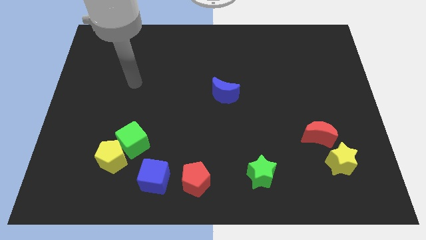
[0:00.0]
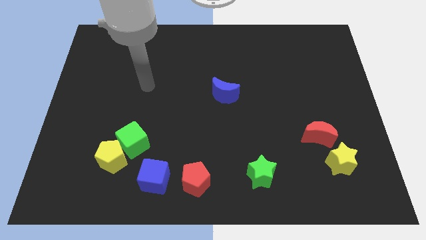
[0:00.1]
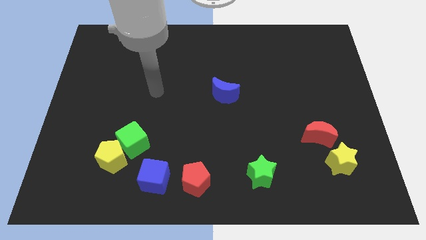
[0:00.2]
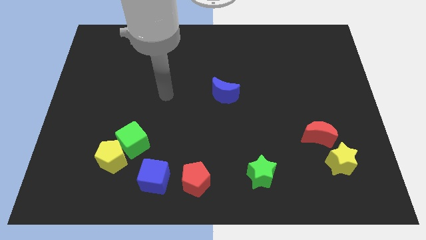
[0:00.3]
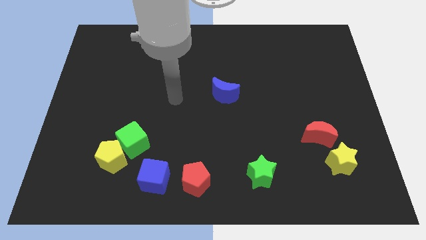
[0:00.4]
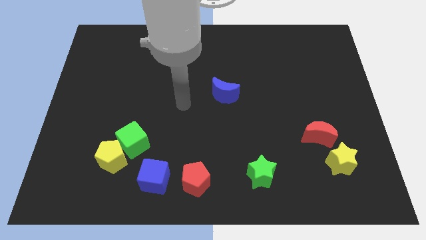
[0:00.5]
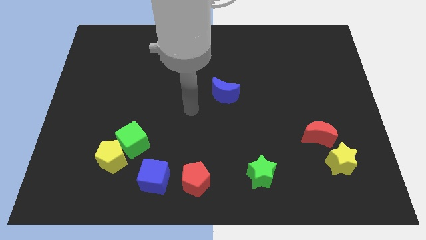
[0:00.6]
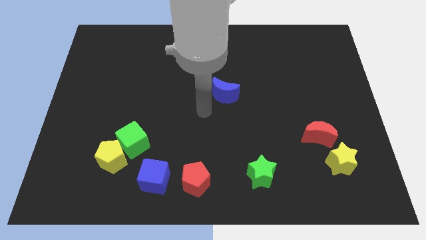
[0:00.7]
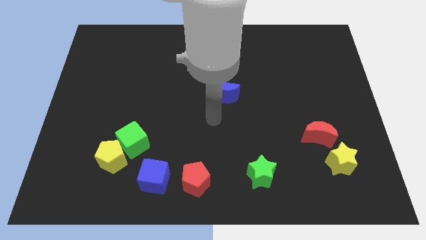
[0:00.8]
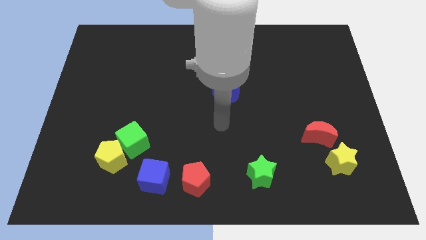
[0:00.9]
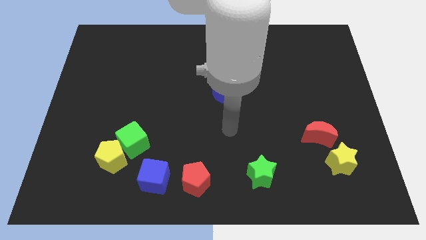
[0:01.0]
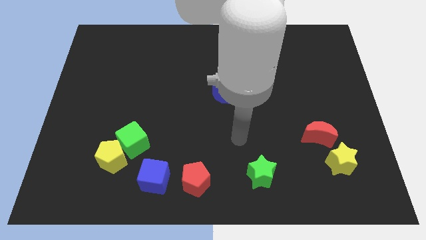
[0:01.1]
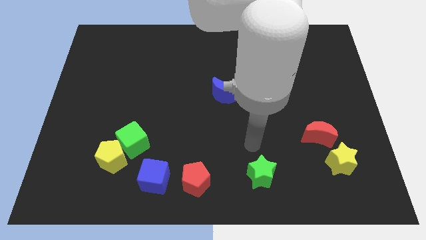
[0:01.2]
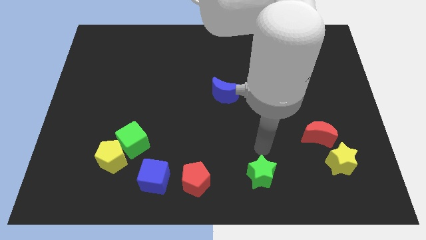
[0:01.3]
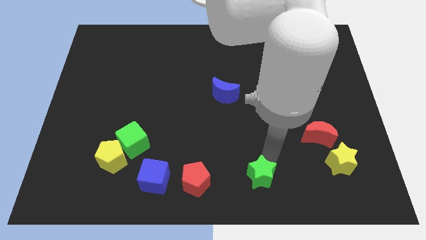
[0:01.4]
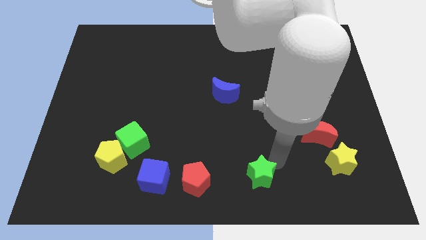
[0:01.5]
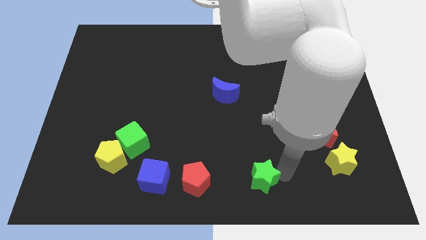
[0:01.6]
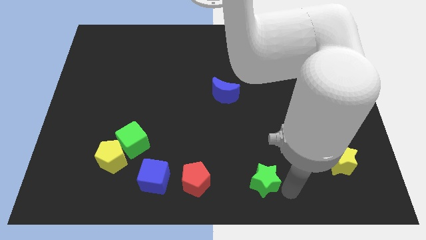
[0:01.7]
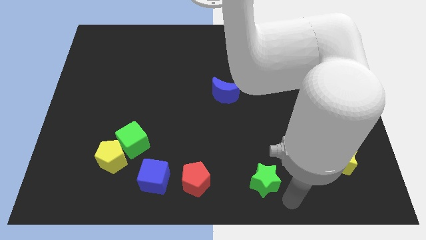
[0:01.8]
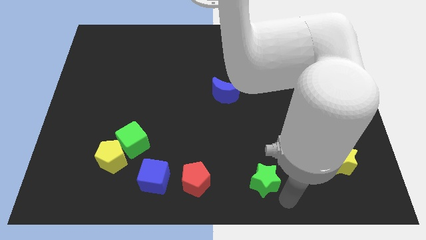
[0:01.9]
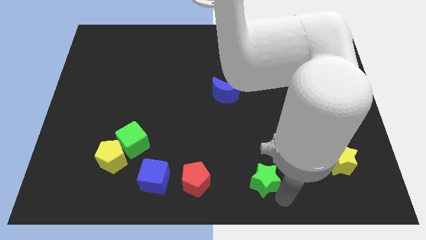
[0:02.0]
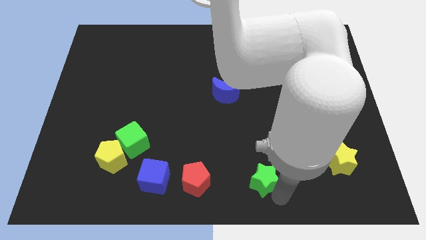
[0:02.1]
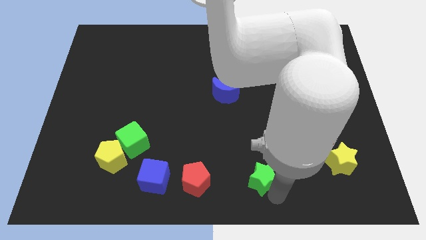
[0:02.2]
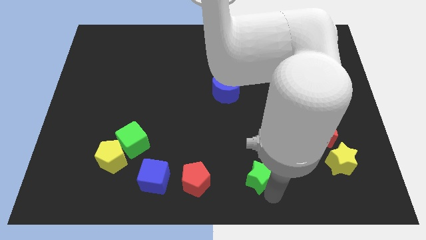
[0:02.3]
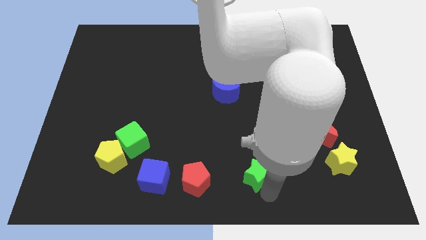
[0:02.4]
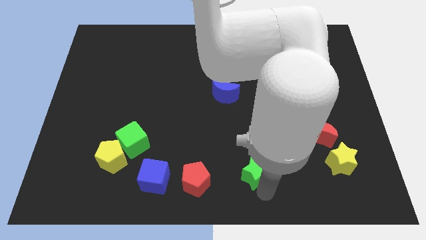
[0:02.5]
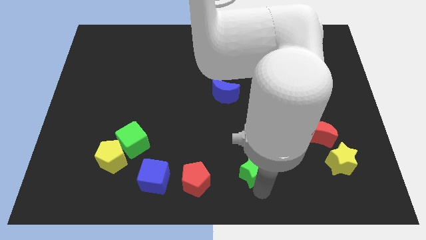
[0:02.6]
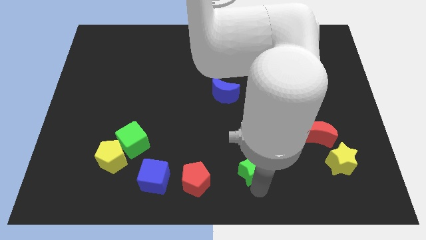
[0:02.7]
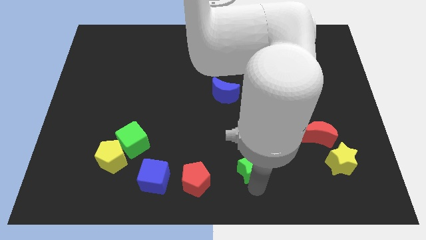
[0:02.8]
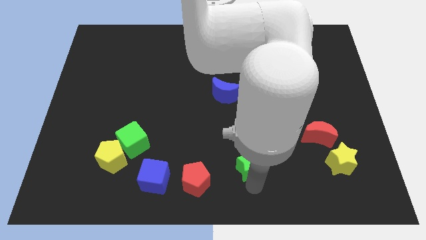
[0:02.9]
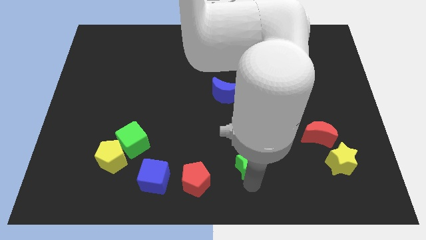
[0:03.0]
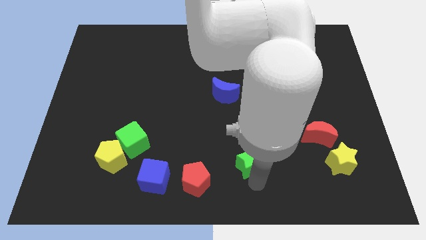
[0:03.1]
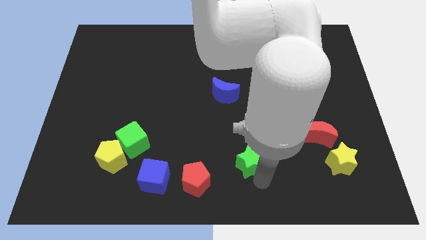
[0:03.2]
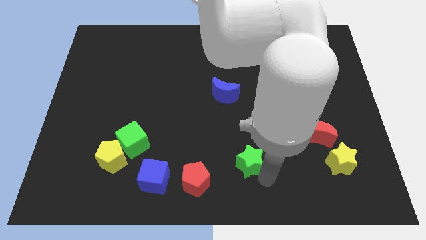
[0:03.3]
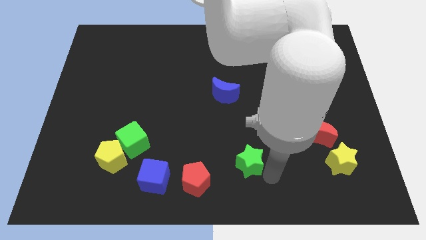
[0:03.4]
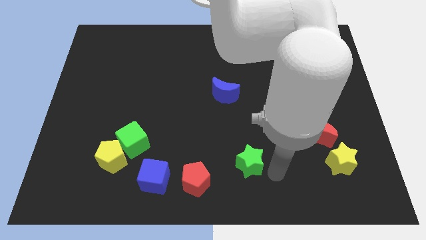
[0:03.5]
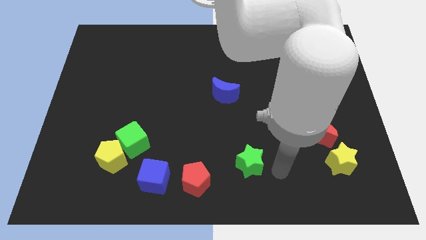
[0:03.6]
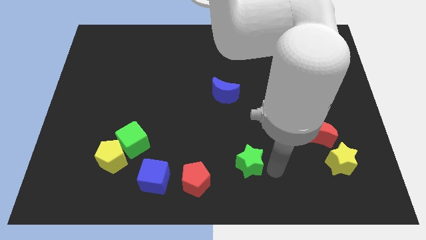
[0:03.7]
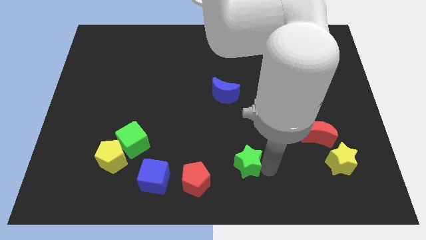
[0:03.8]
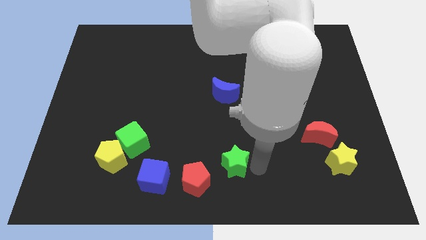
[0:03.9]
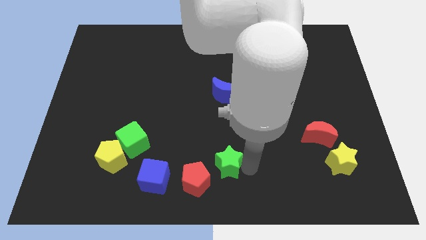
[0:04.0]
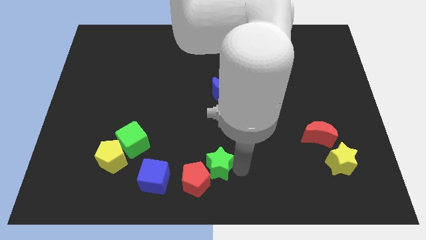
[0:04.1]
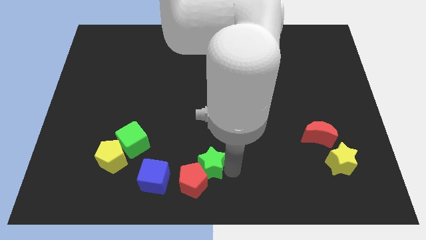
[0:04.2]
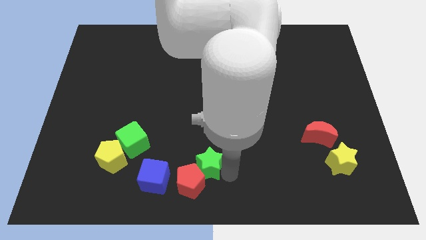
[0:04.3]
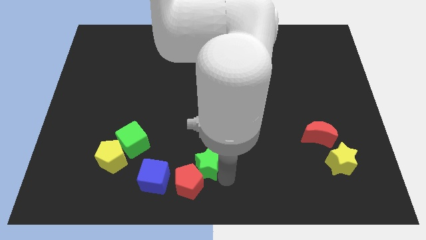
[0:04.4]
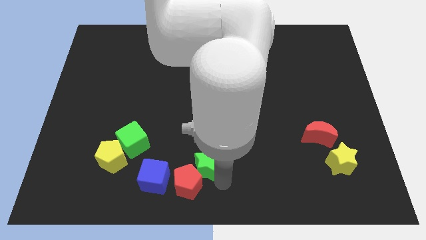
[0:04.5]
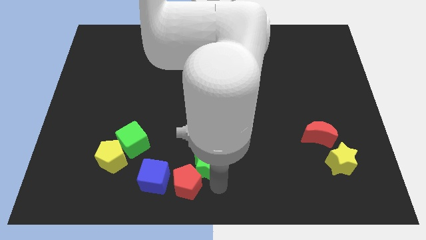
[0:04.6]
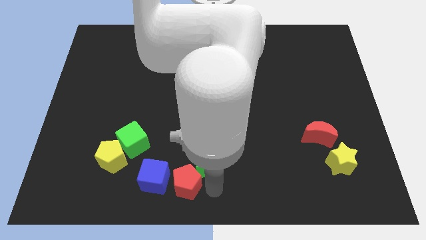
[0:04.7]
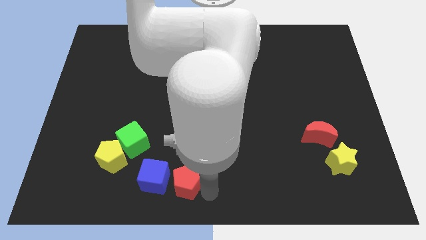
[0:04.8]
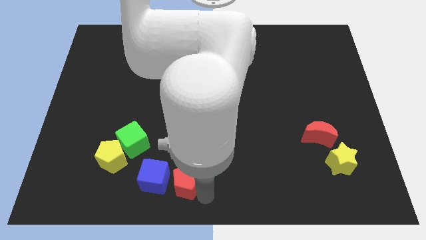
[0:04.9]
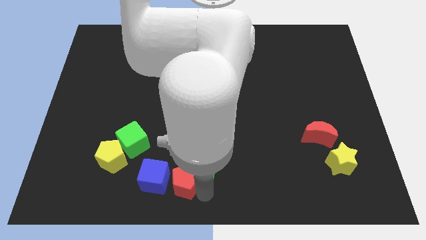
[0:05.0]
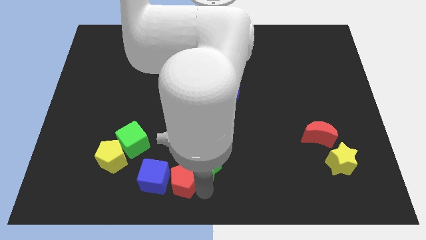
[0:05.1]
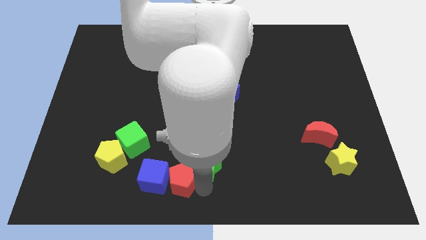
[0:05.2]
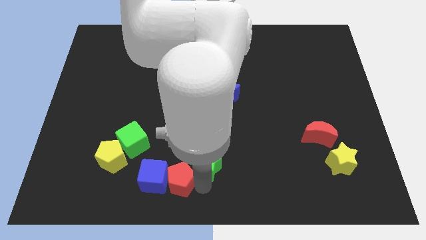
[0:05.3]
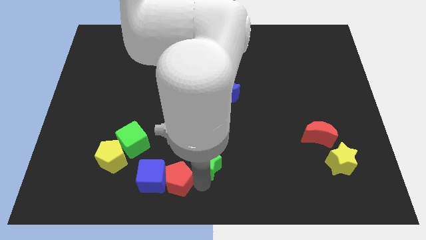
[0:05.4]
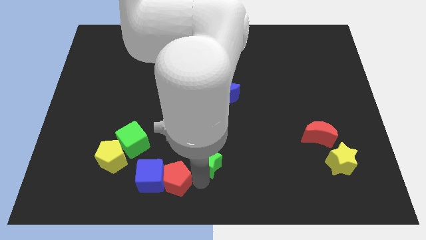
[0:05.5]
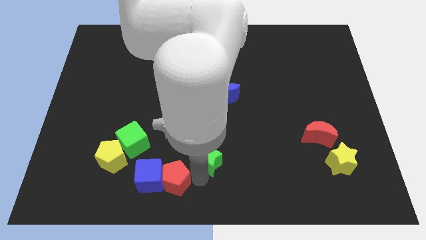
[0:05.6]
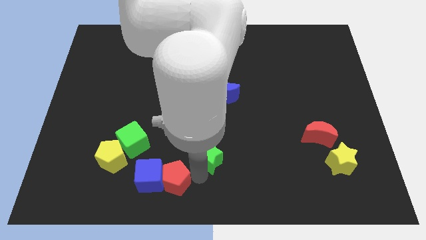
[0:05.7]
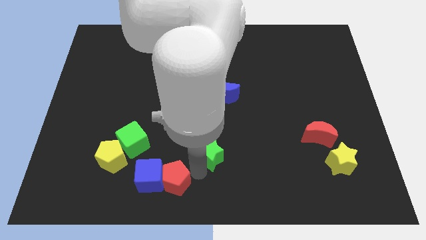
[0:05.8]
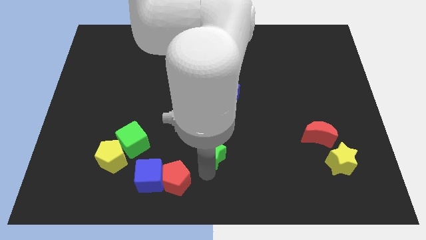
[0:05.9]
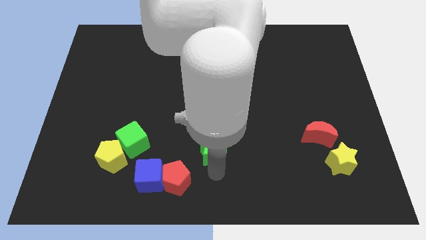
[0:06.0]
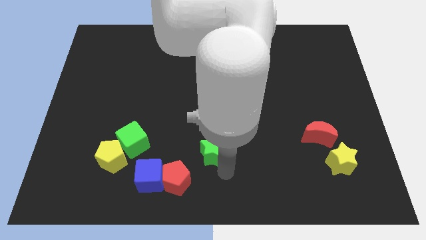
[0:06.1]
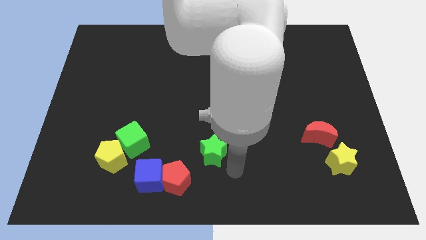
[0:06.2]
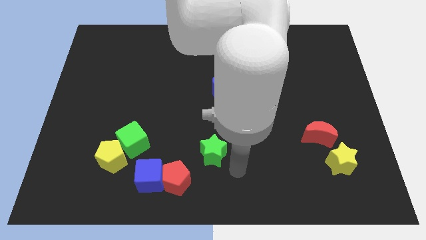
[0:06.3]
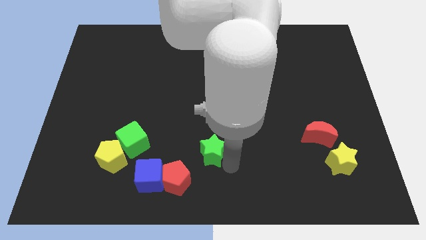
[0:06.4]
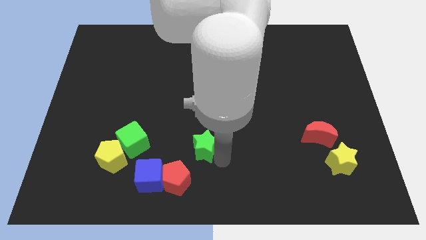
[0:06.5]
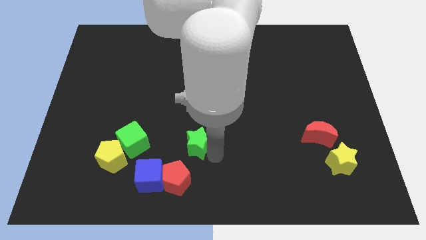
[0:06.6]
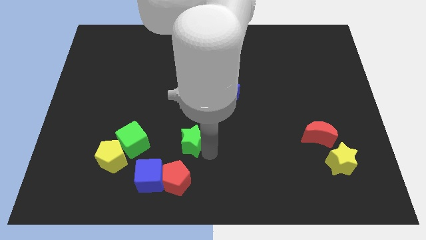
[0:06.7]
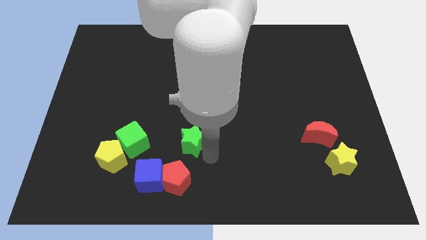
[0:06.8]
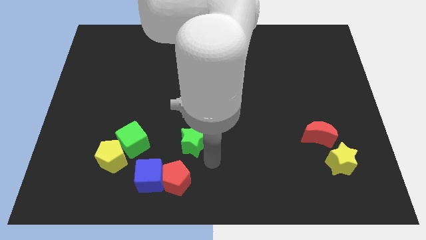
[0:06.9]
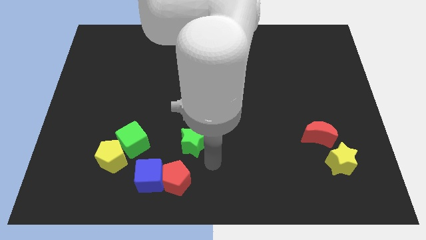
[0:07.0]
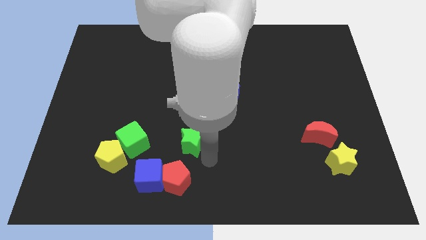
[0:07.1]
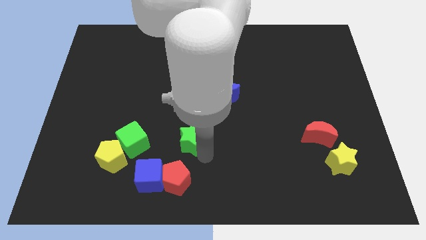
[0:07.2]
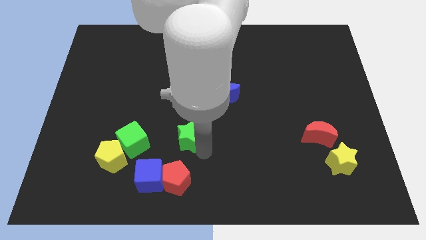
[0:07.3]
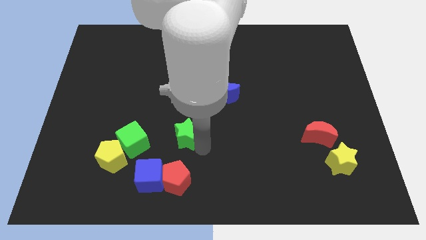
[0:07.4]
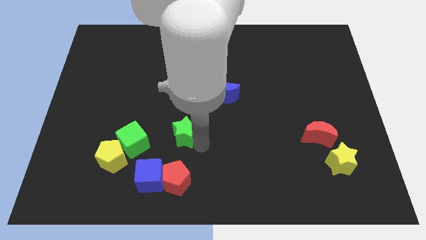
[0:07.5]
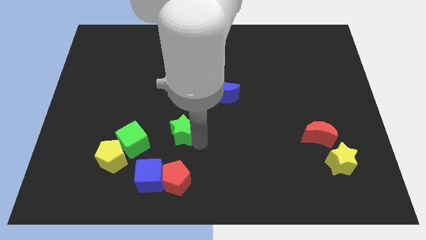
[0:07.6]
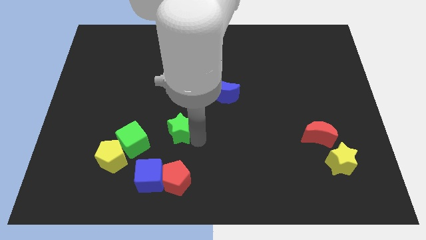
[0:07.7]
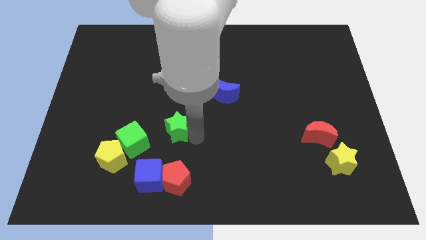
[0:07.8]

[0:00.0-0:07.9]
put the green star diagonally up and to the right of the green cube
